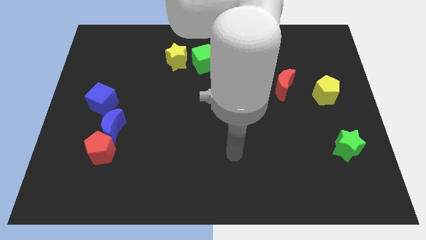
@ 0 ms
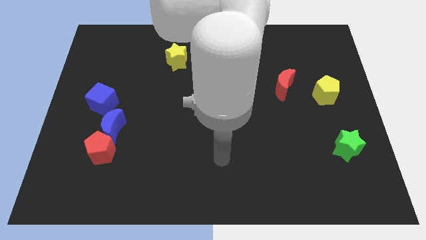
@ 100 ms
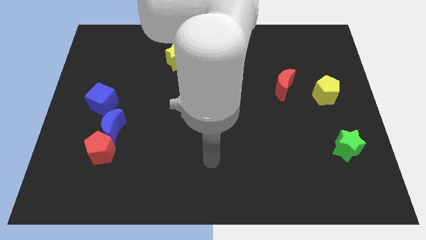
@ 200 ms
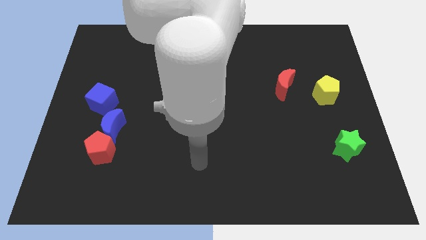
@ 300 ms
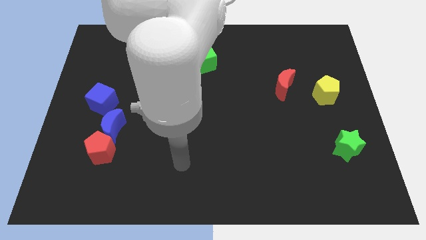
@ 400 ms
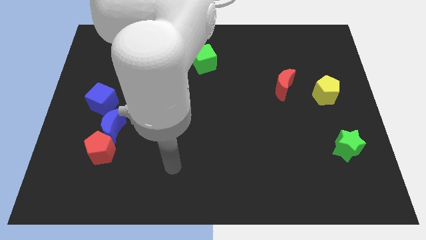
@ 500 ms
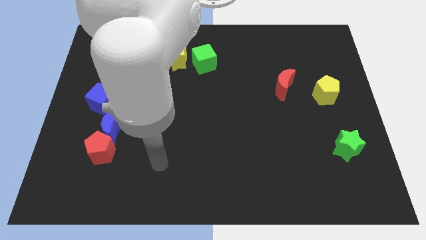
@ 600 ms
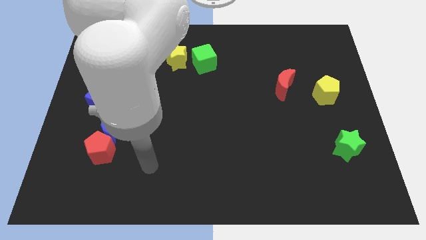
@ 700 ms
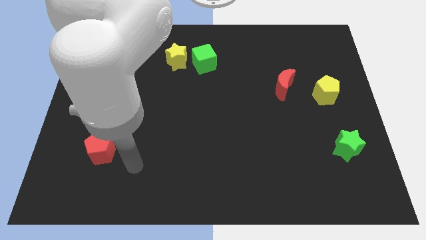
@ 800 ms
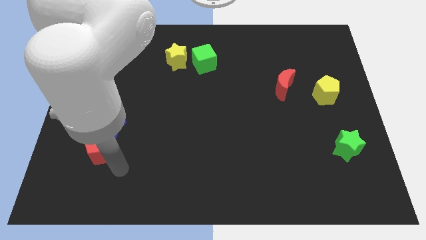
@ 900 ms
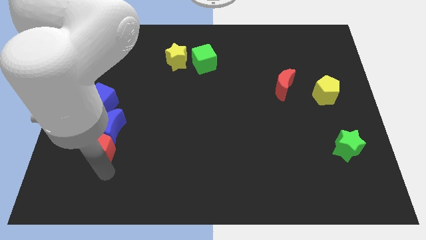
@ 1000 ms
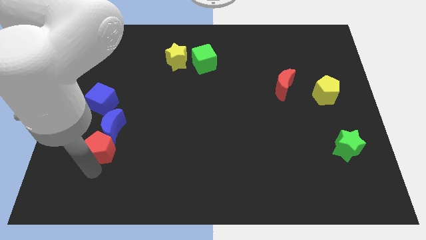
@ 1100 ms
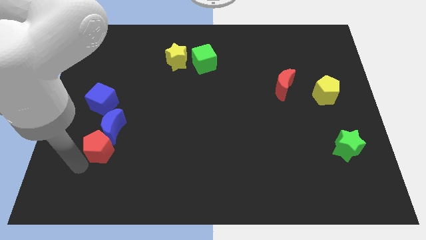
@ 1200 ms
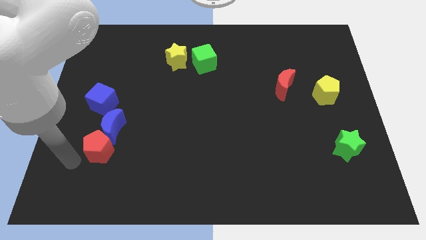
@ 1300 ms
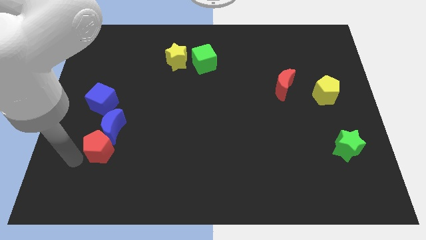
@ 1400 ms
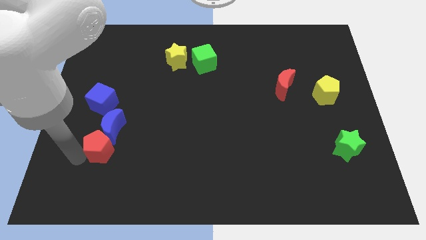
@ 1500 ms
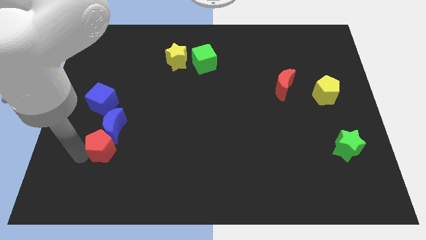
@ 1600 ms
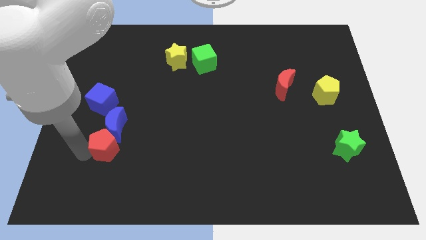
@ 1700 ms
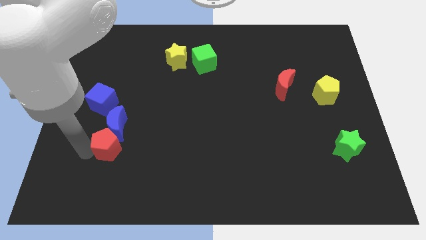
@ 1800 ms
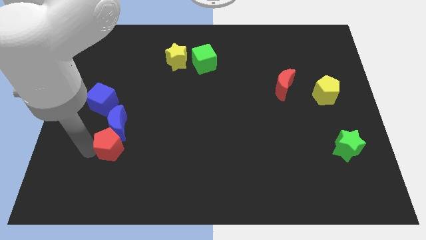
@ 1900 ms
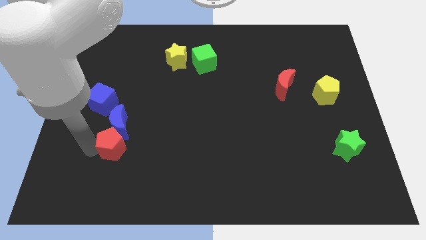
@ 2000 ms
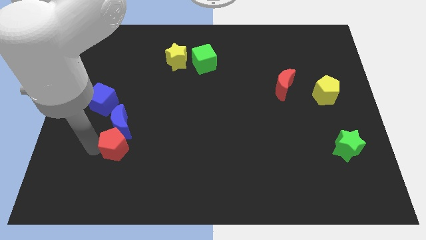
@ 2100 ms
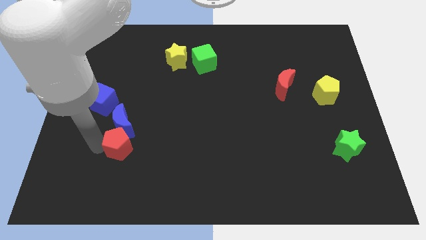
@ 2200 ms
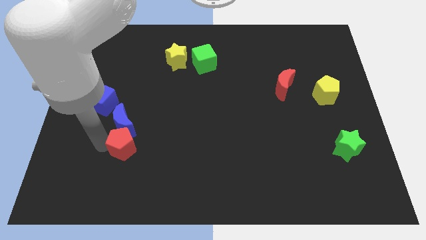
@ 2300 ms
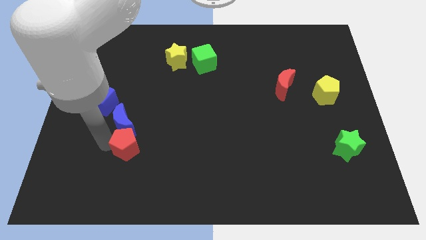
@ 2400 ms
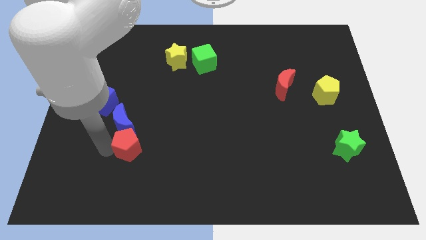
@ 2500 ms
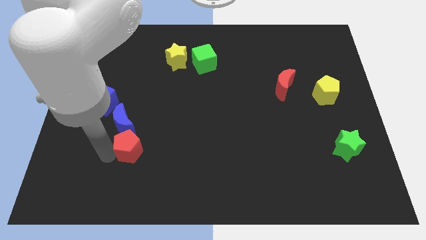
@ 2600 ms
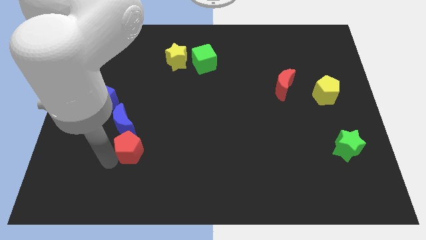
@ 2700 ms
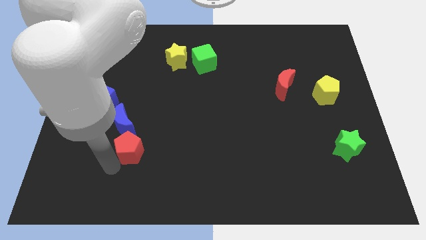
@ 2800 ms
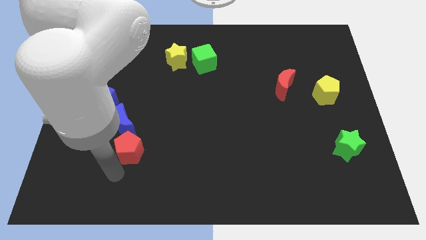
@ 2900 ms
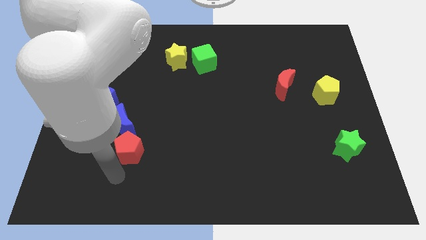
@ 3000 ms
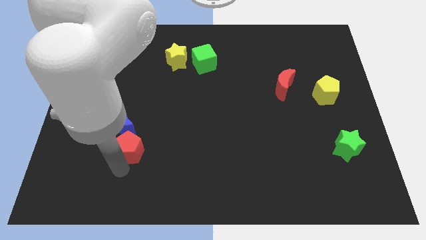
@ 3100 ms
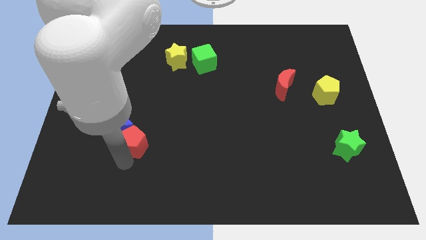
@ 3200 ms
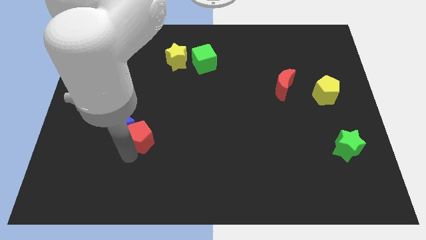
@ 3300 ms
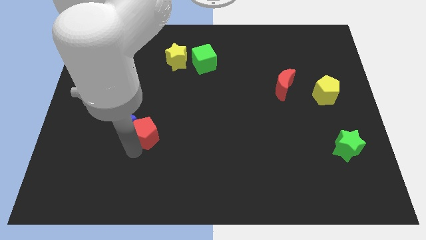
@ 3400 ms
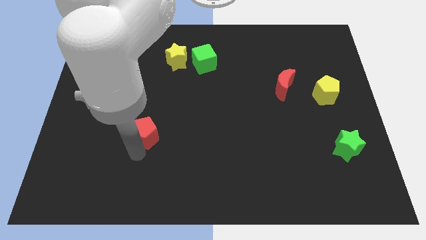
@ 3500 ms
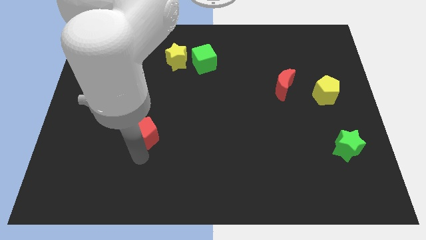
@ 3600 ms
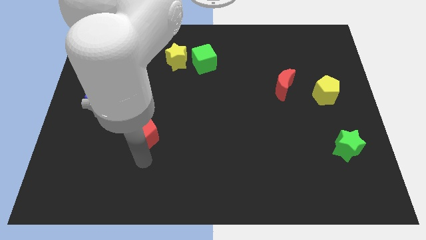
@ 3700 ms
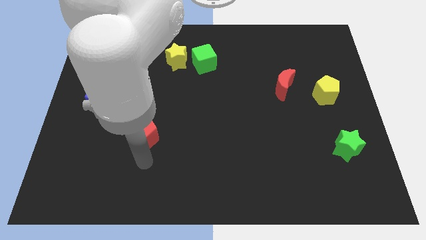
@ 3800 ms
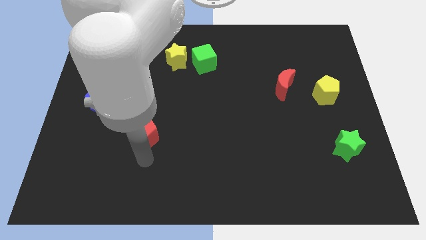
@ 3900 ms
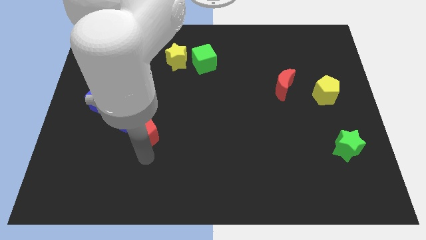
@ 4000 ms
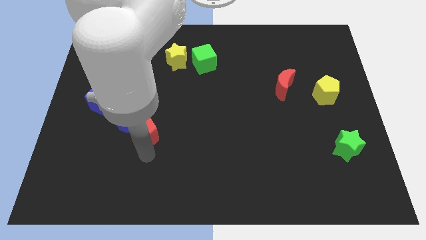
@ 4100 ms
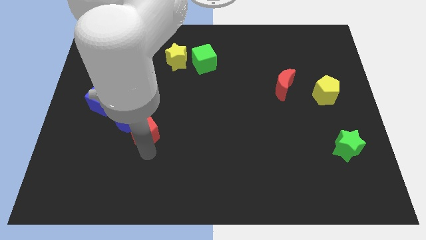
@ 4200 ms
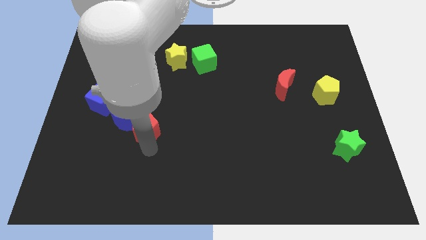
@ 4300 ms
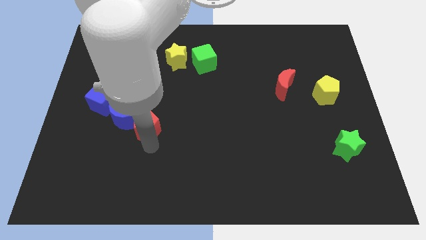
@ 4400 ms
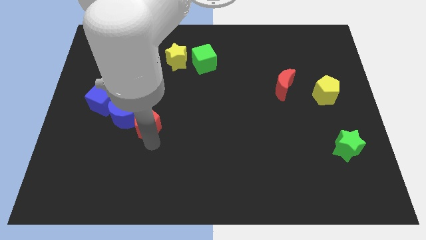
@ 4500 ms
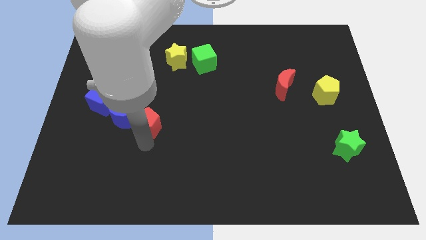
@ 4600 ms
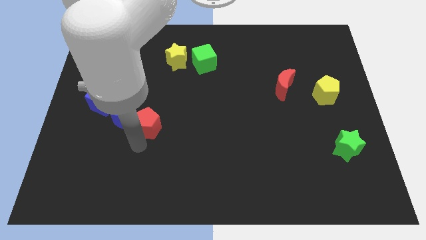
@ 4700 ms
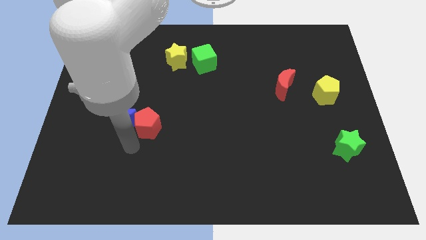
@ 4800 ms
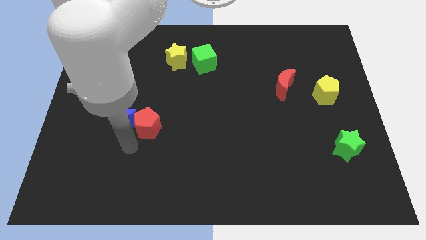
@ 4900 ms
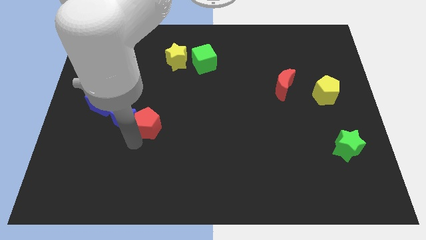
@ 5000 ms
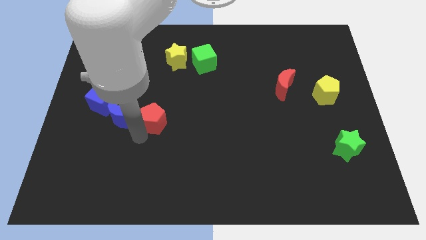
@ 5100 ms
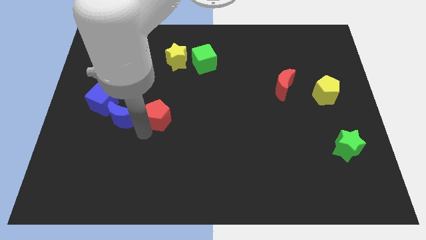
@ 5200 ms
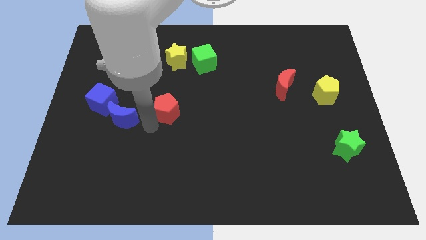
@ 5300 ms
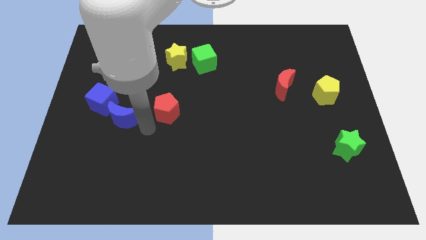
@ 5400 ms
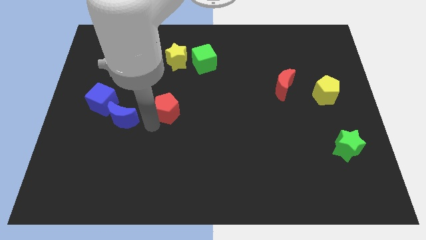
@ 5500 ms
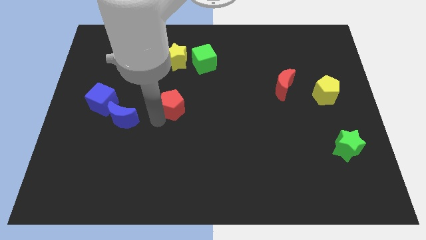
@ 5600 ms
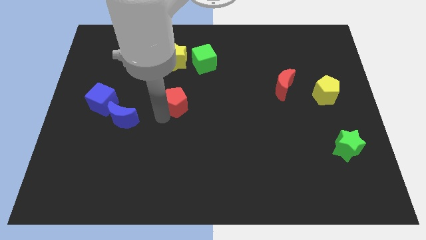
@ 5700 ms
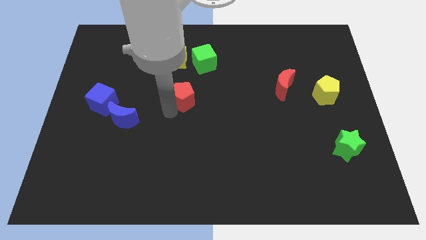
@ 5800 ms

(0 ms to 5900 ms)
push the red pentagon diagonally up and right

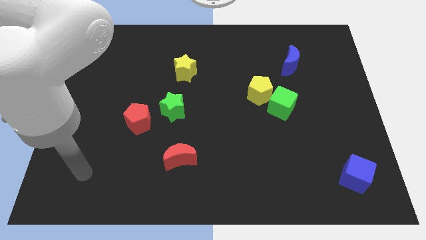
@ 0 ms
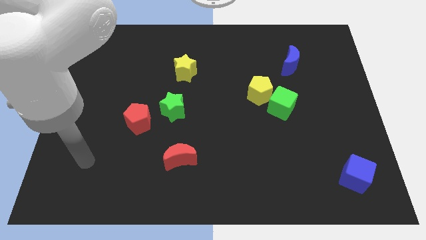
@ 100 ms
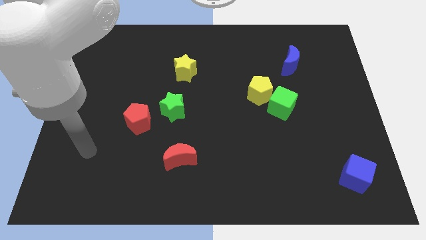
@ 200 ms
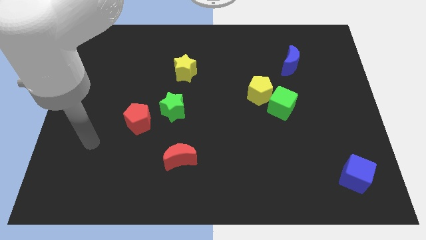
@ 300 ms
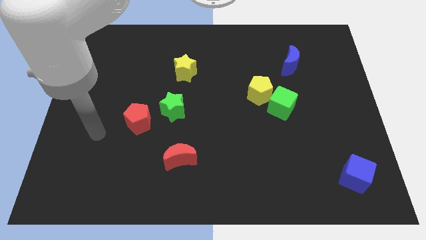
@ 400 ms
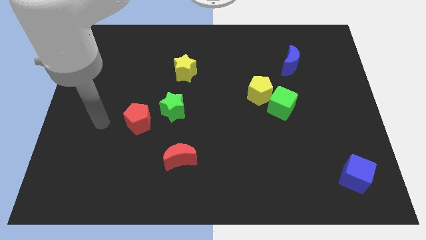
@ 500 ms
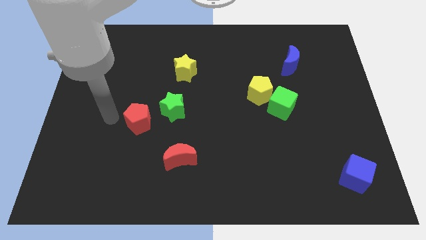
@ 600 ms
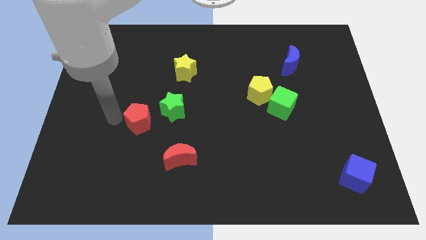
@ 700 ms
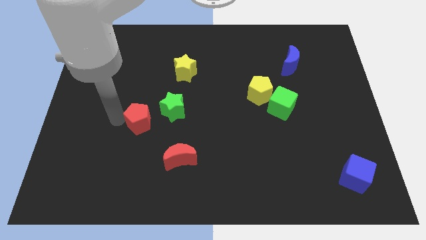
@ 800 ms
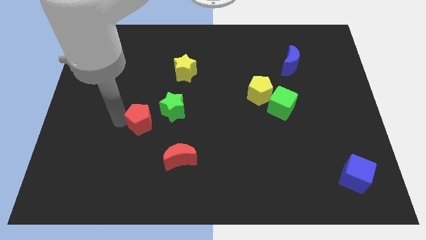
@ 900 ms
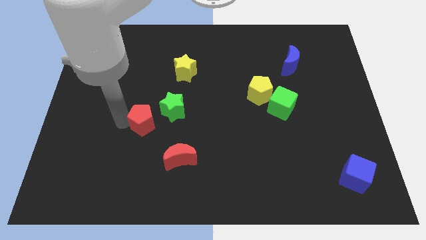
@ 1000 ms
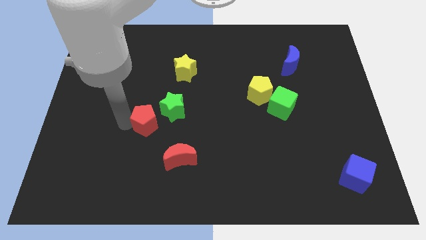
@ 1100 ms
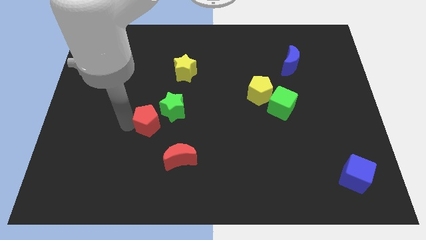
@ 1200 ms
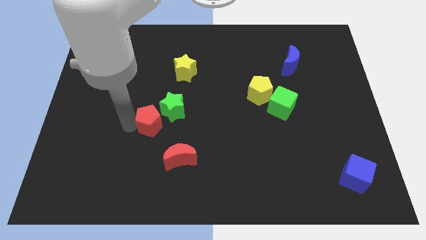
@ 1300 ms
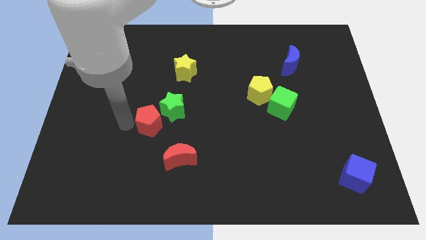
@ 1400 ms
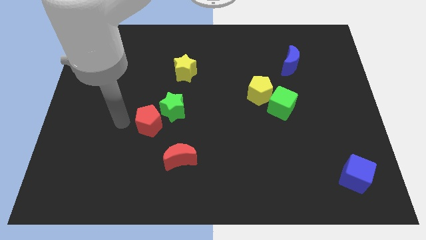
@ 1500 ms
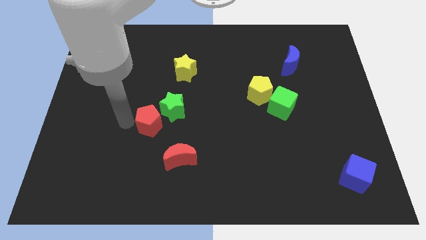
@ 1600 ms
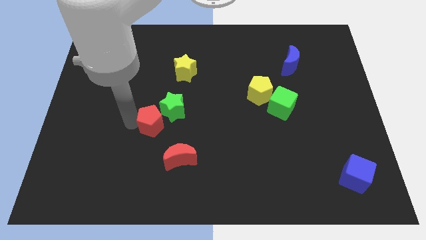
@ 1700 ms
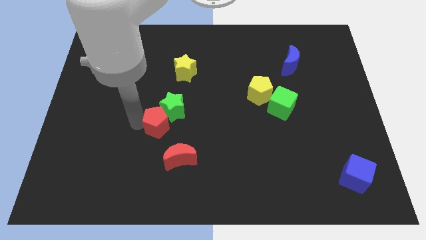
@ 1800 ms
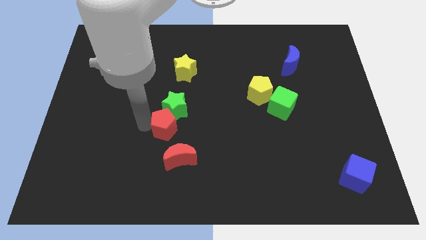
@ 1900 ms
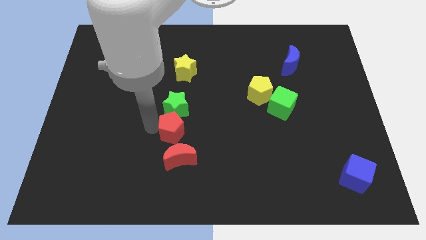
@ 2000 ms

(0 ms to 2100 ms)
slightly move the red pentagon to the right

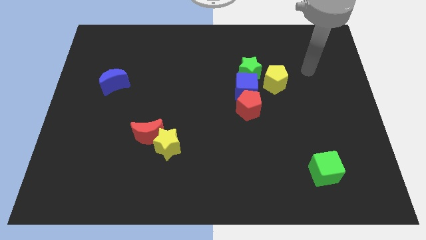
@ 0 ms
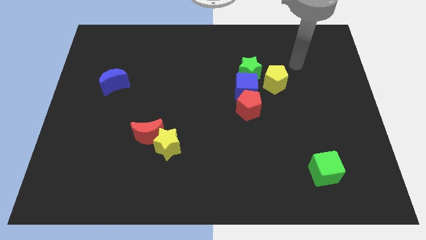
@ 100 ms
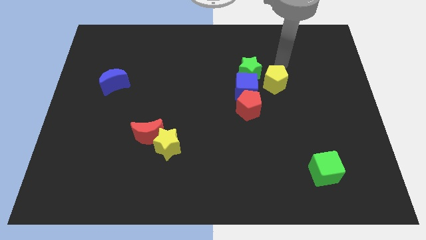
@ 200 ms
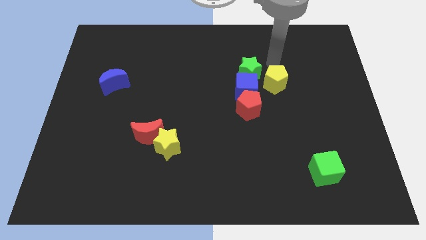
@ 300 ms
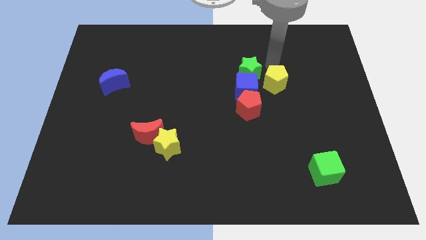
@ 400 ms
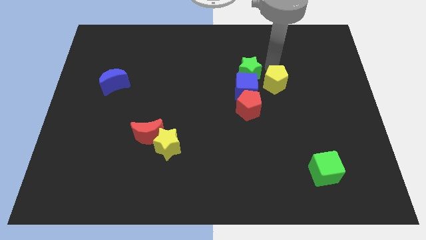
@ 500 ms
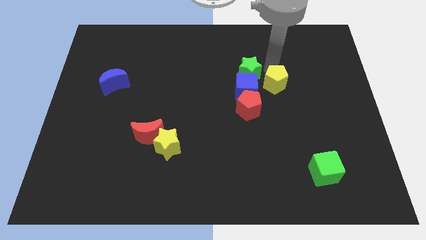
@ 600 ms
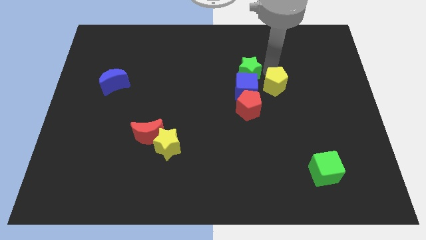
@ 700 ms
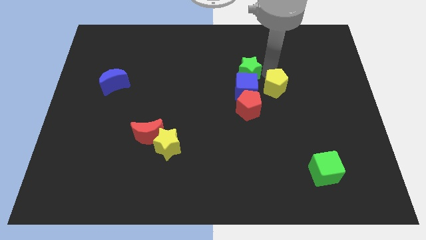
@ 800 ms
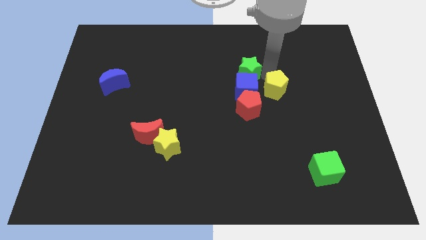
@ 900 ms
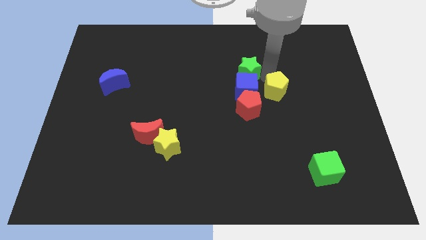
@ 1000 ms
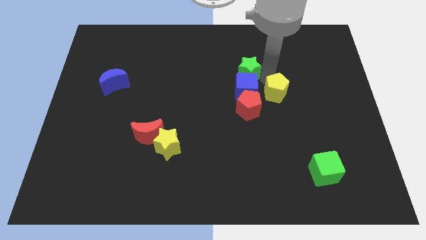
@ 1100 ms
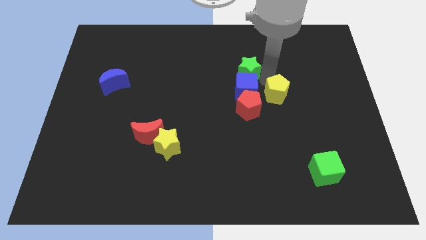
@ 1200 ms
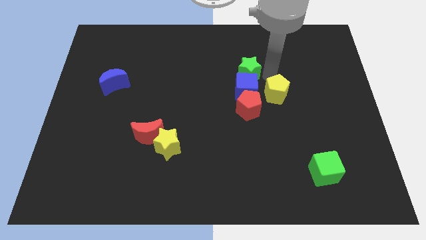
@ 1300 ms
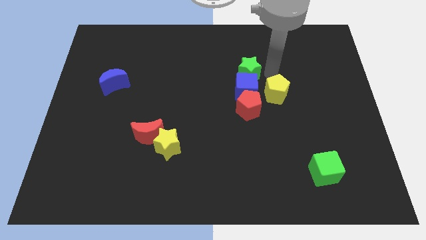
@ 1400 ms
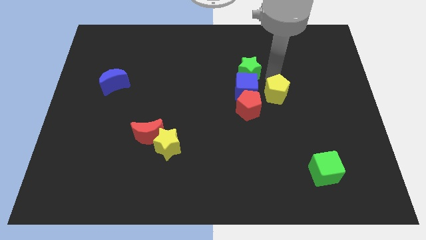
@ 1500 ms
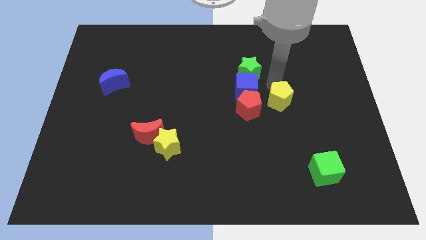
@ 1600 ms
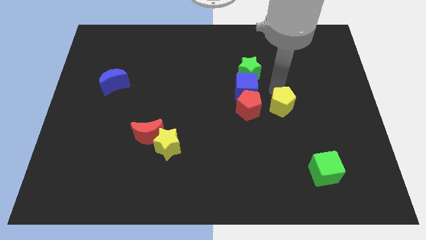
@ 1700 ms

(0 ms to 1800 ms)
move the yellow pentagon a little bit downwards
